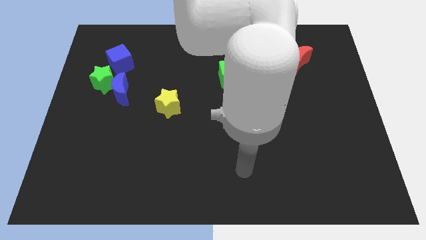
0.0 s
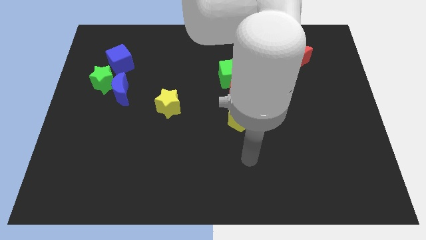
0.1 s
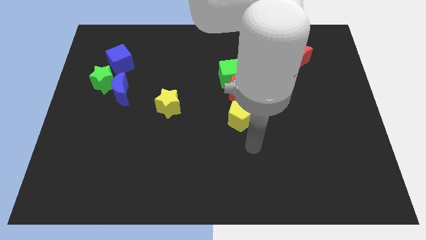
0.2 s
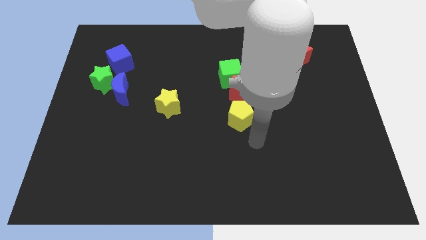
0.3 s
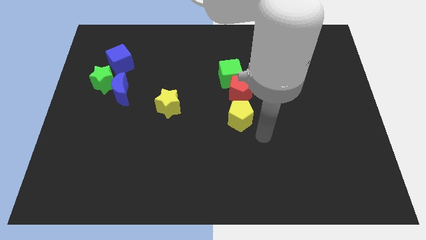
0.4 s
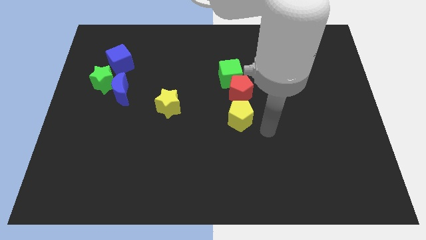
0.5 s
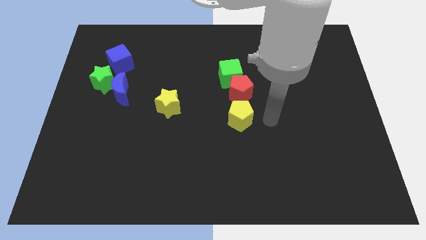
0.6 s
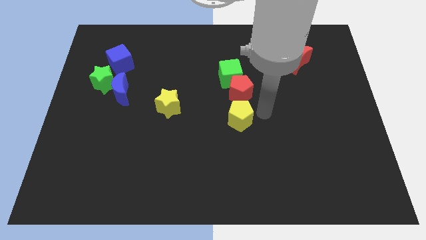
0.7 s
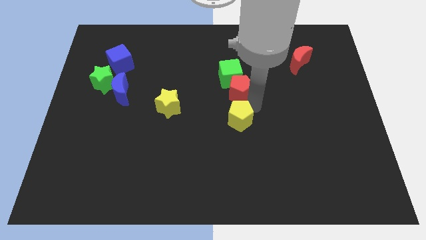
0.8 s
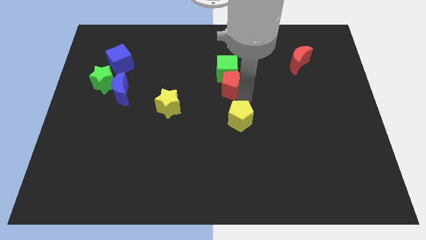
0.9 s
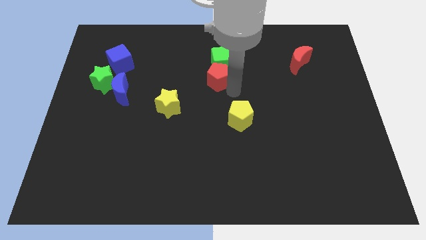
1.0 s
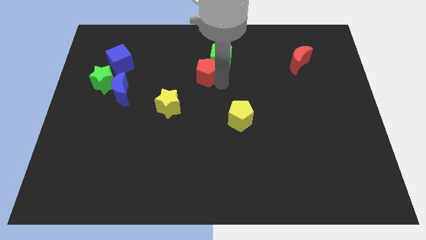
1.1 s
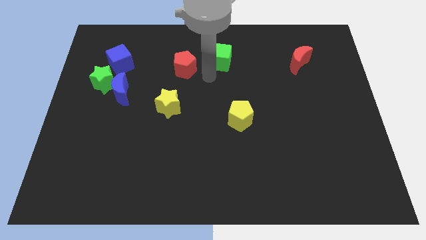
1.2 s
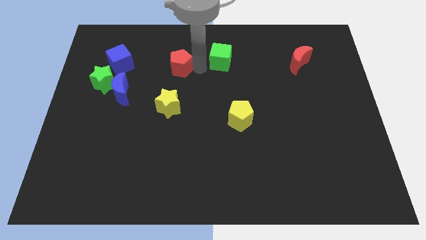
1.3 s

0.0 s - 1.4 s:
move the green cube away from the red pentagon

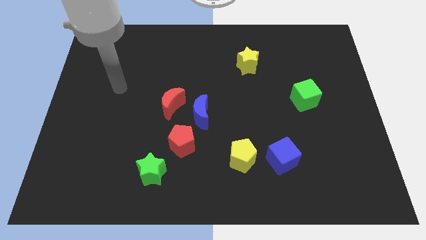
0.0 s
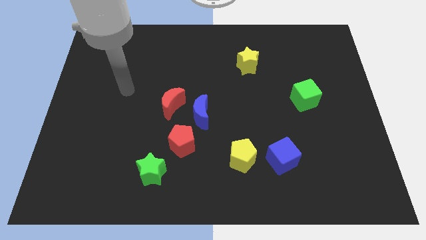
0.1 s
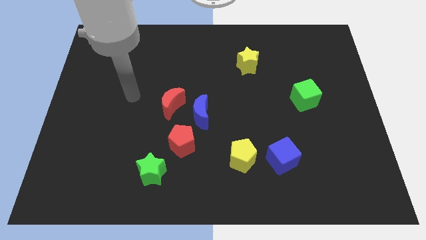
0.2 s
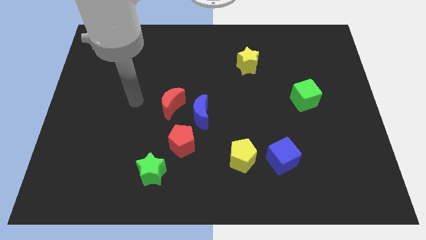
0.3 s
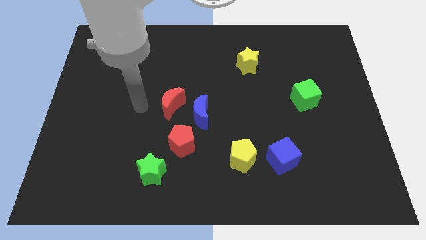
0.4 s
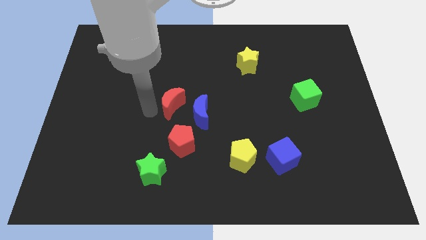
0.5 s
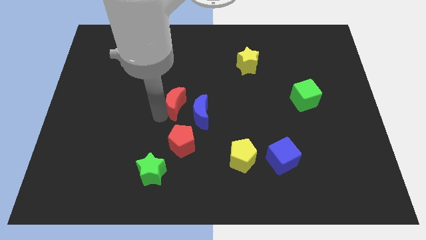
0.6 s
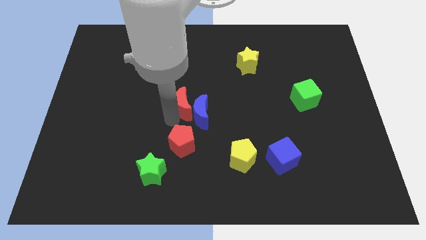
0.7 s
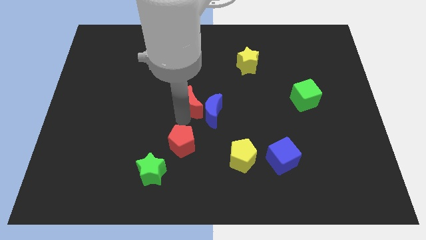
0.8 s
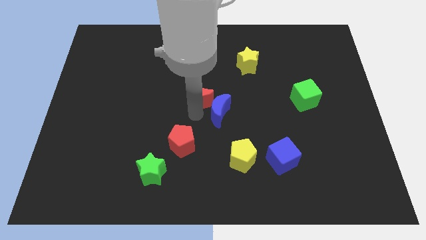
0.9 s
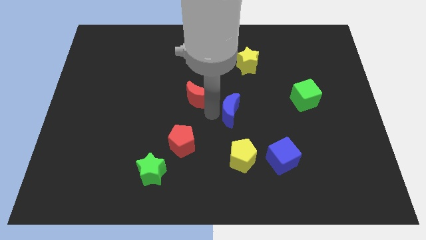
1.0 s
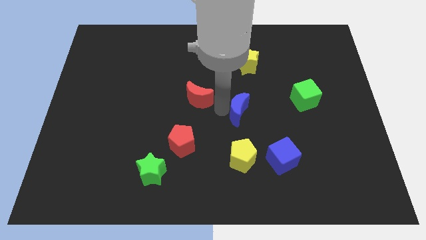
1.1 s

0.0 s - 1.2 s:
separate the red moon from the blue moon

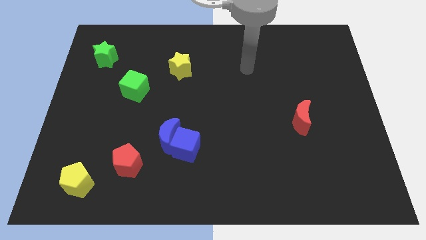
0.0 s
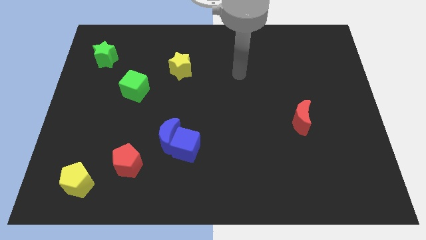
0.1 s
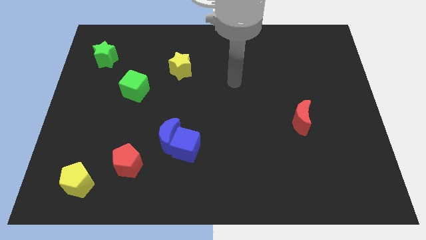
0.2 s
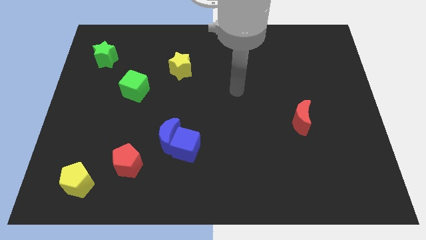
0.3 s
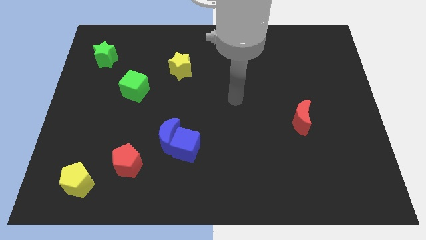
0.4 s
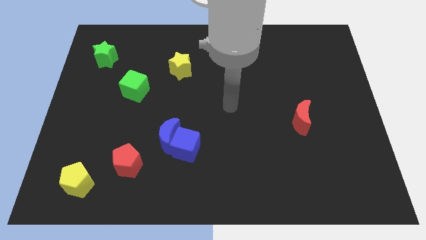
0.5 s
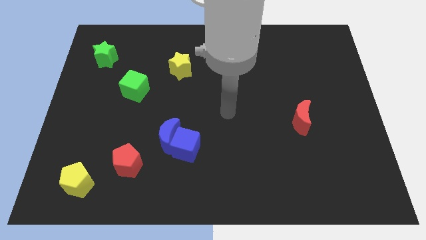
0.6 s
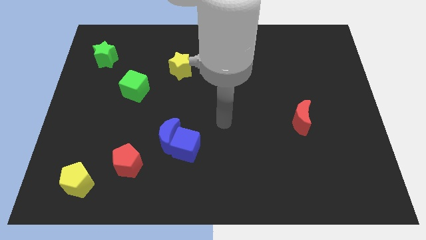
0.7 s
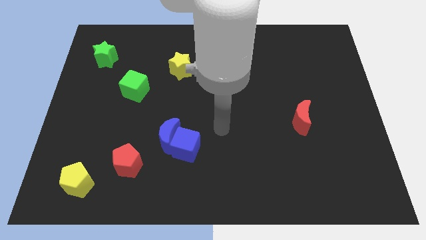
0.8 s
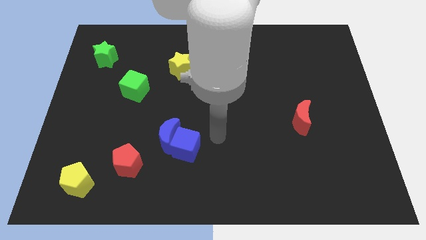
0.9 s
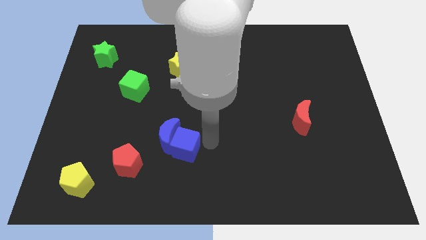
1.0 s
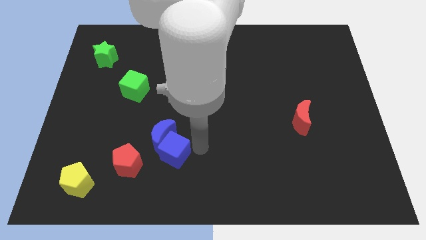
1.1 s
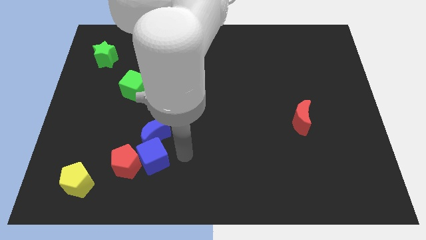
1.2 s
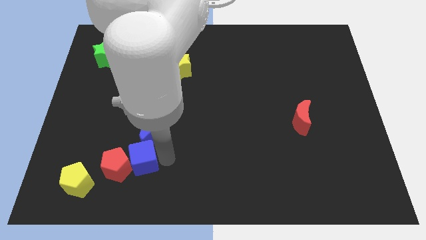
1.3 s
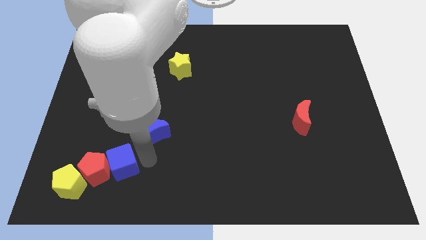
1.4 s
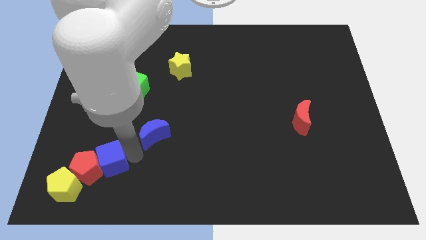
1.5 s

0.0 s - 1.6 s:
separate the blue moon from the blue cube

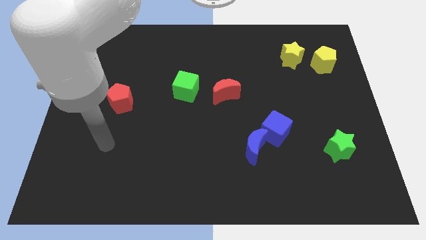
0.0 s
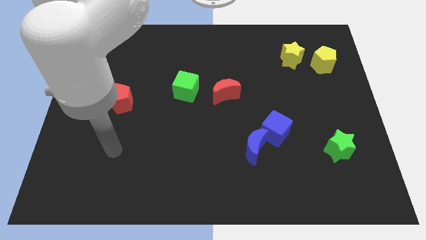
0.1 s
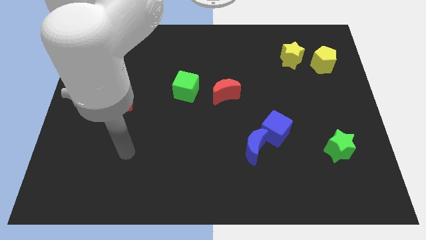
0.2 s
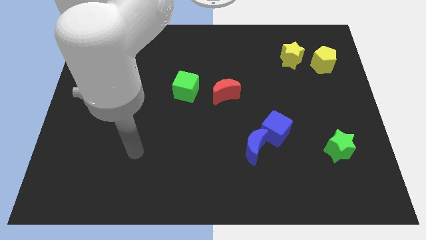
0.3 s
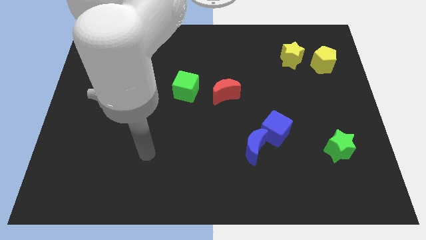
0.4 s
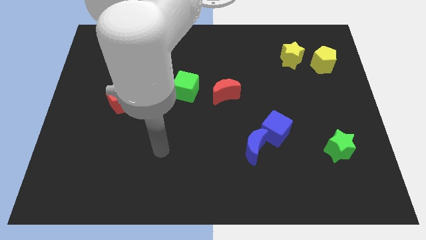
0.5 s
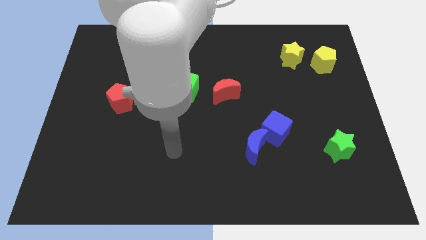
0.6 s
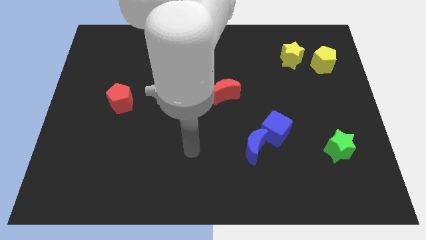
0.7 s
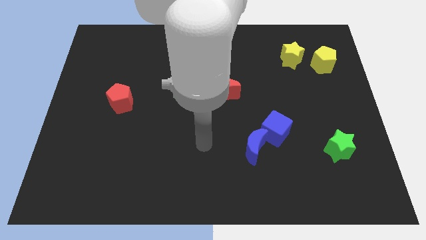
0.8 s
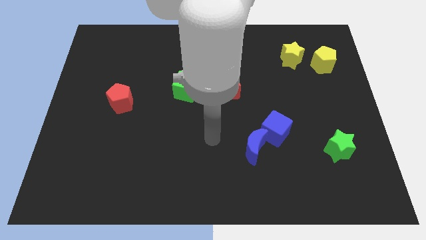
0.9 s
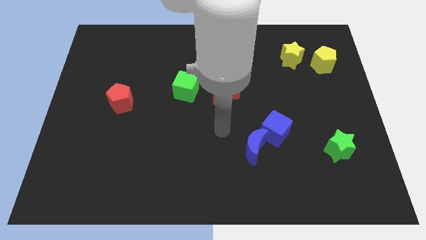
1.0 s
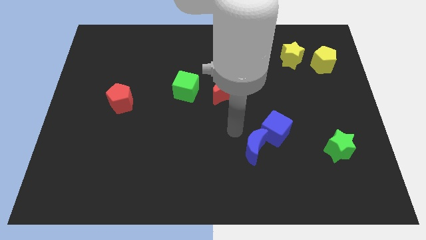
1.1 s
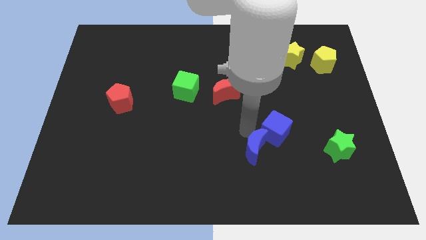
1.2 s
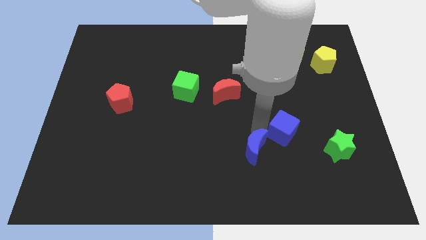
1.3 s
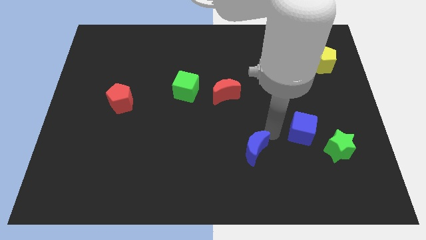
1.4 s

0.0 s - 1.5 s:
pull the blue moon apart from the blue cube

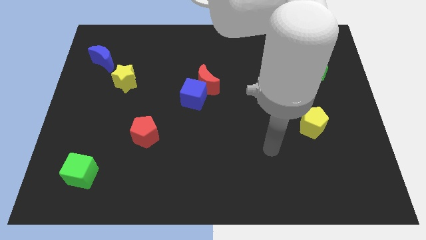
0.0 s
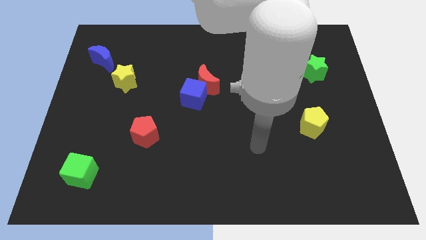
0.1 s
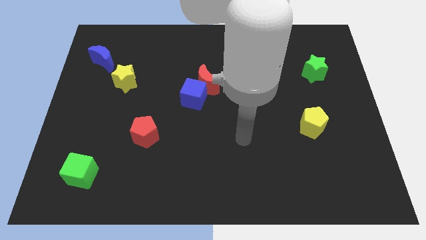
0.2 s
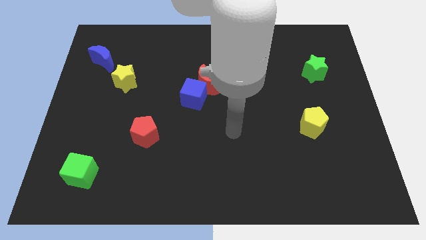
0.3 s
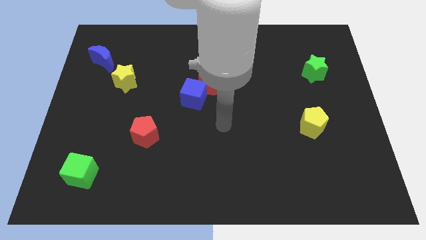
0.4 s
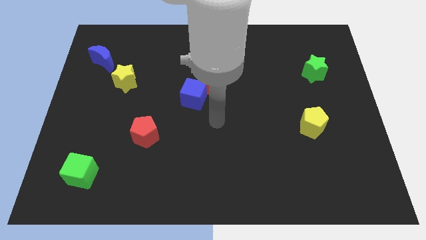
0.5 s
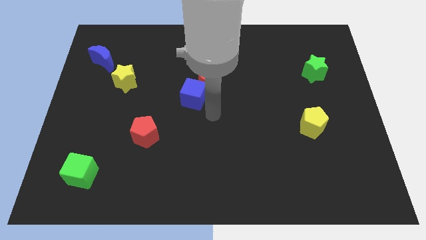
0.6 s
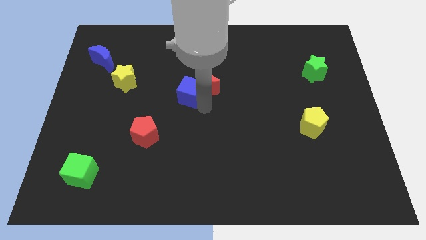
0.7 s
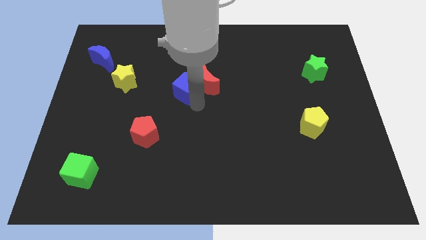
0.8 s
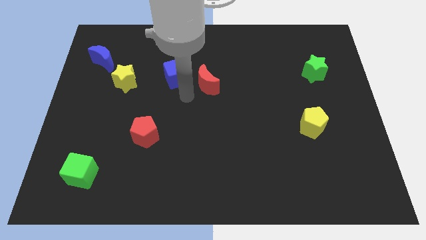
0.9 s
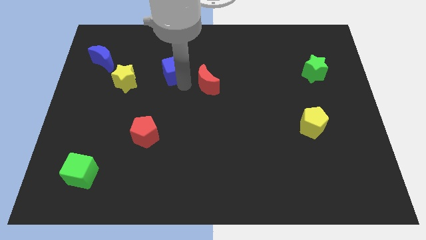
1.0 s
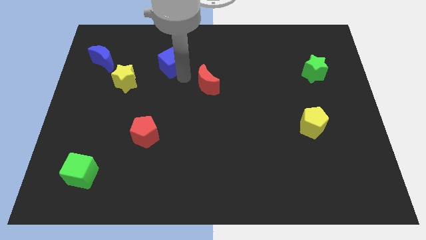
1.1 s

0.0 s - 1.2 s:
move the red moon away from the blue cube

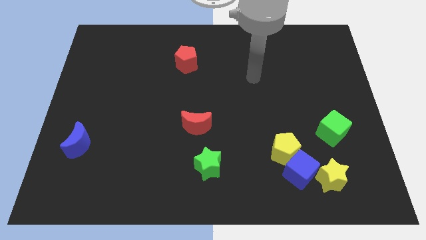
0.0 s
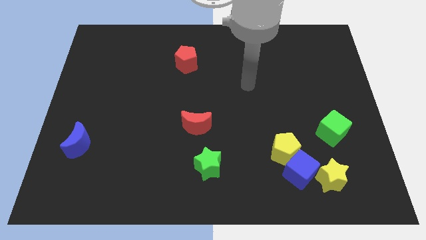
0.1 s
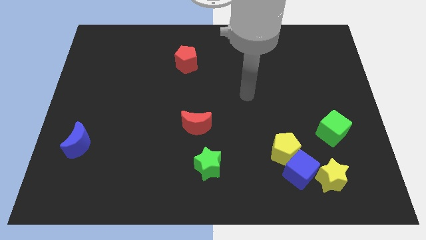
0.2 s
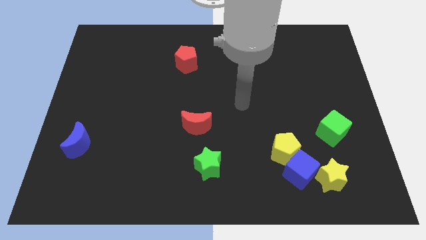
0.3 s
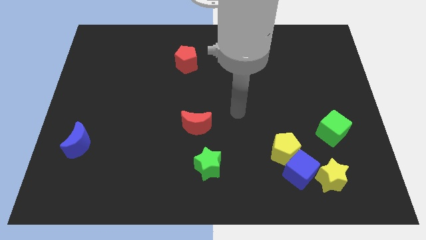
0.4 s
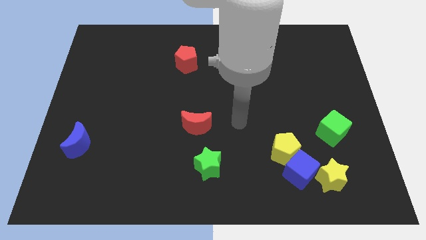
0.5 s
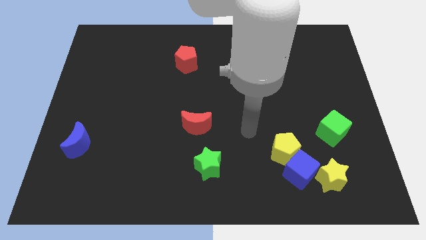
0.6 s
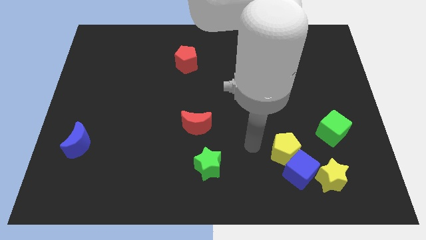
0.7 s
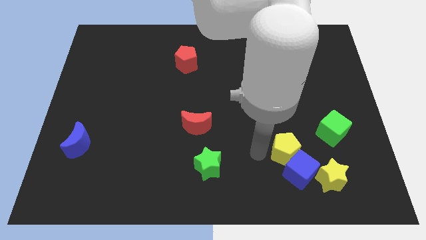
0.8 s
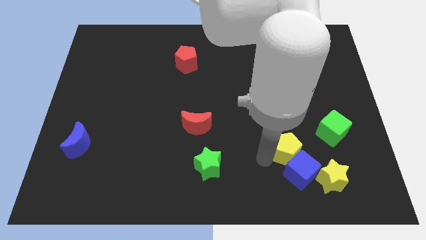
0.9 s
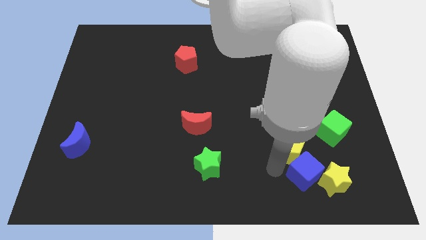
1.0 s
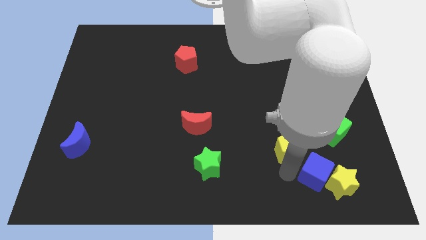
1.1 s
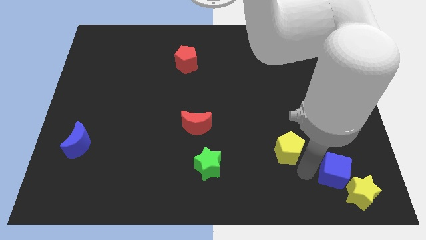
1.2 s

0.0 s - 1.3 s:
move the yellow pentagon away from the blue cube

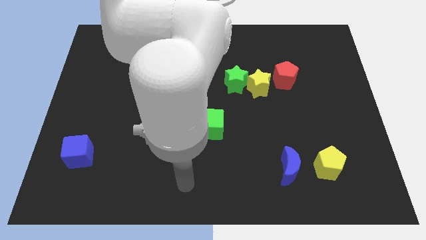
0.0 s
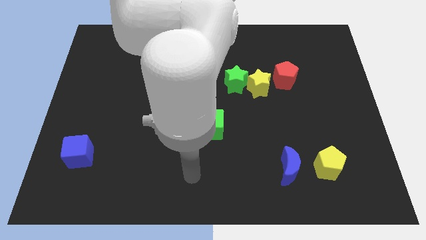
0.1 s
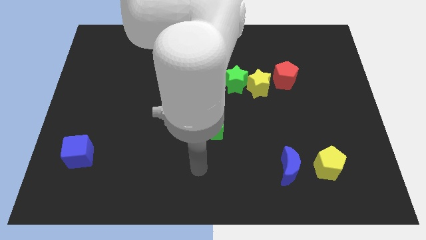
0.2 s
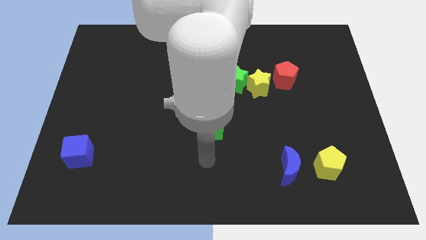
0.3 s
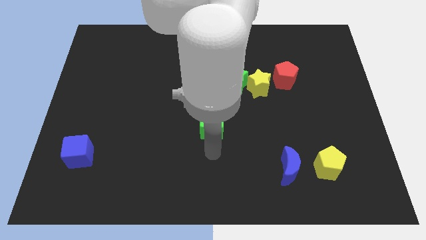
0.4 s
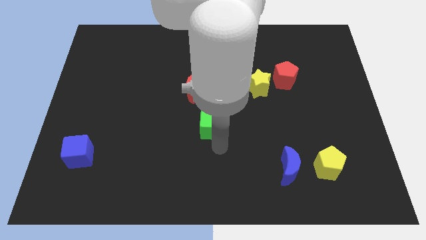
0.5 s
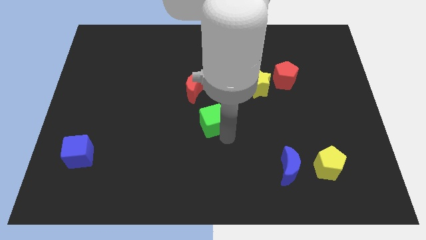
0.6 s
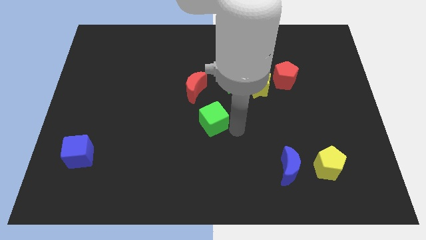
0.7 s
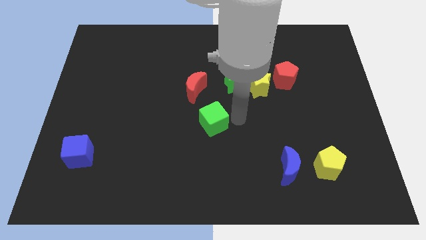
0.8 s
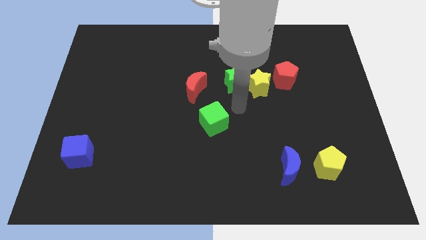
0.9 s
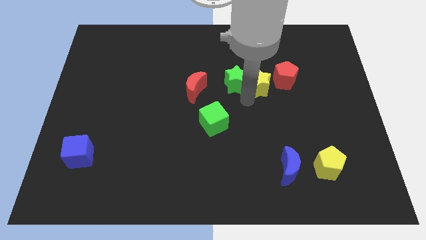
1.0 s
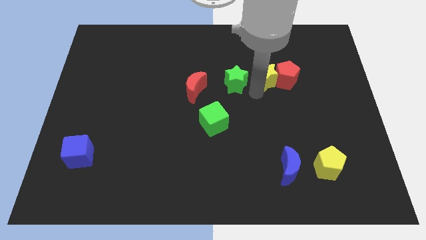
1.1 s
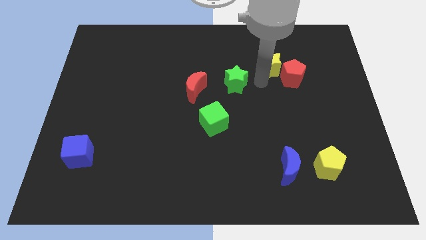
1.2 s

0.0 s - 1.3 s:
move the green star away from the yellow star
